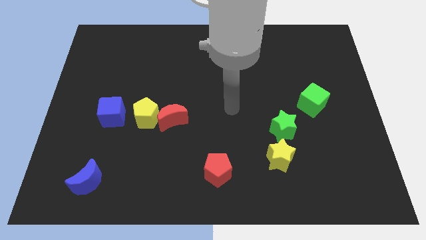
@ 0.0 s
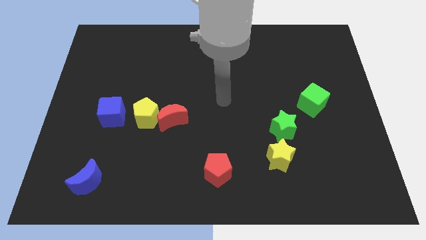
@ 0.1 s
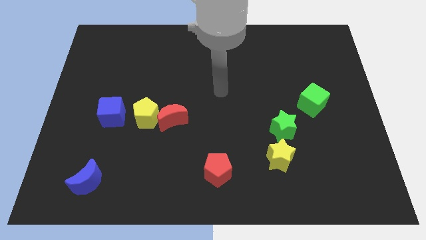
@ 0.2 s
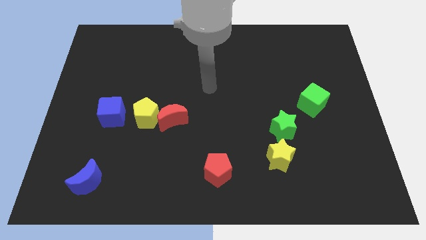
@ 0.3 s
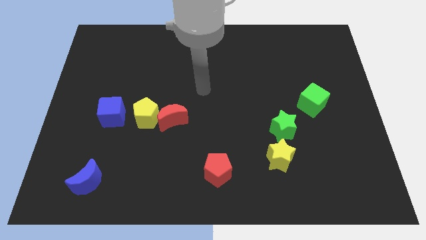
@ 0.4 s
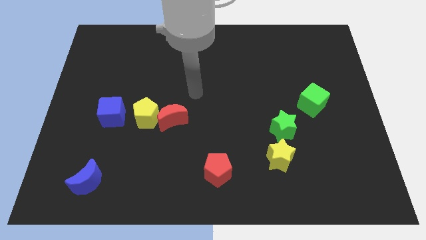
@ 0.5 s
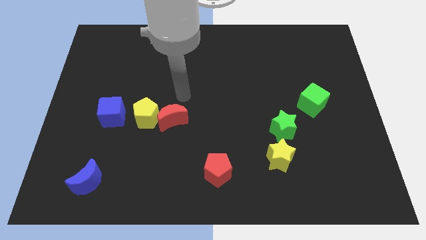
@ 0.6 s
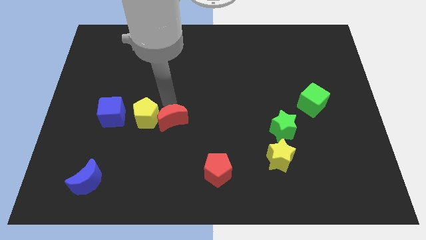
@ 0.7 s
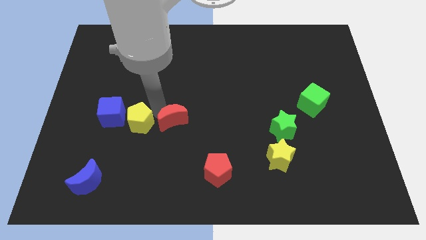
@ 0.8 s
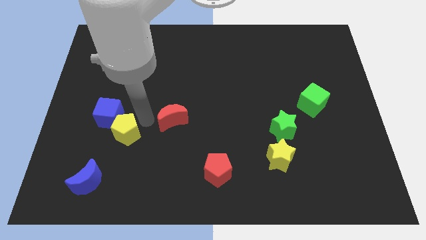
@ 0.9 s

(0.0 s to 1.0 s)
move the red moon away from the yellow pentagon

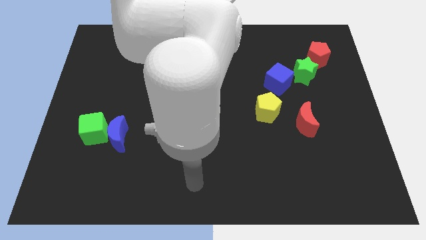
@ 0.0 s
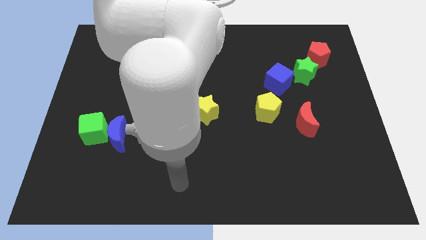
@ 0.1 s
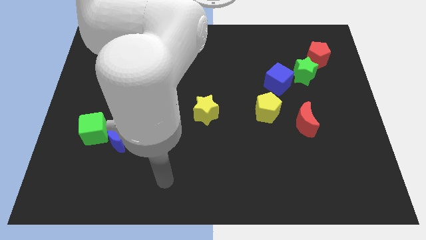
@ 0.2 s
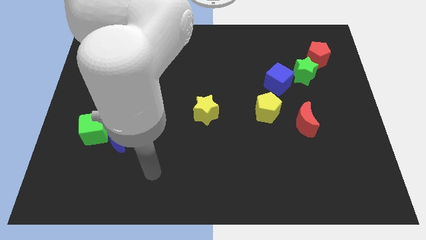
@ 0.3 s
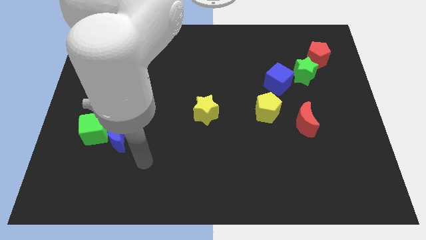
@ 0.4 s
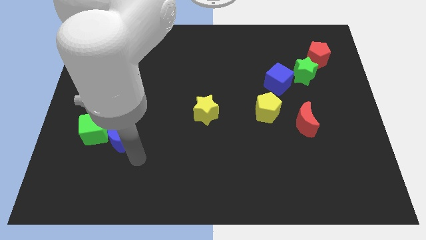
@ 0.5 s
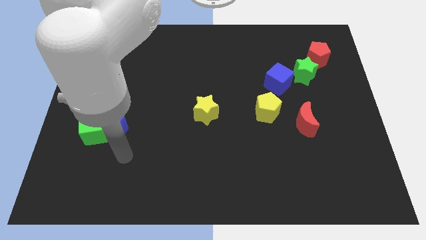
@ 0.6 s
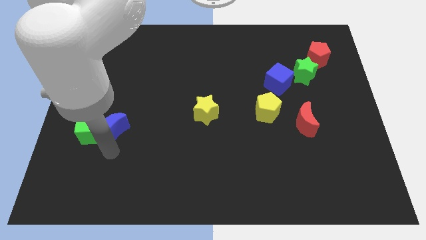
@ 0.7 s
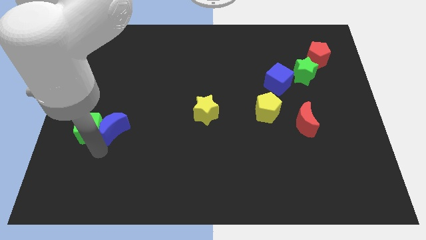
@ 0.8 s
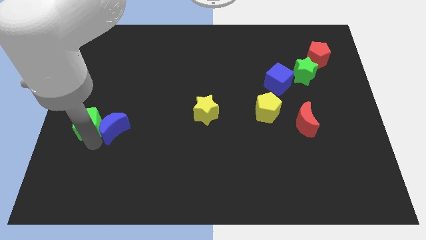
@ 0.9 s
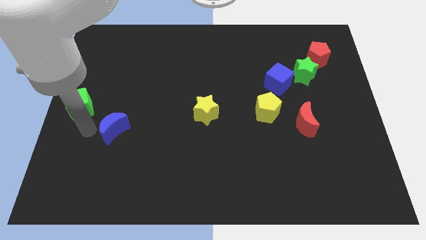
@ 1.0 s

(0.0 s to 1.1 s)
pull the blue moon apart from the green cube

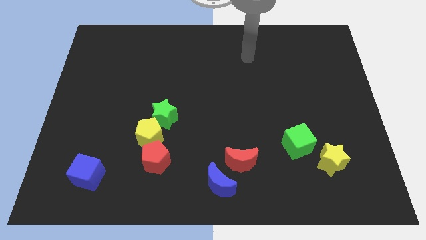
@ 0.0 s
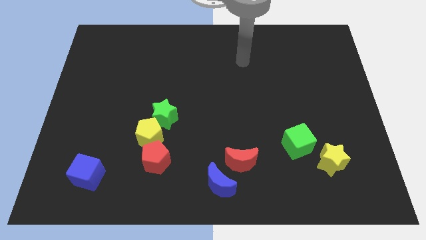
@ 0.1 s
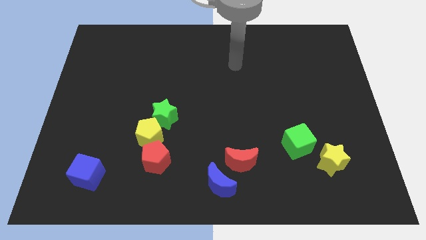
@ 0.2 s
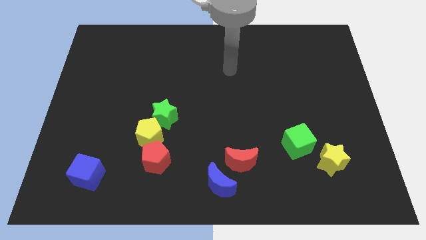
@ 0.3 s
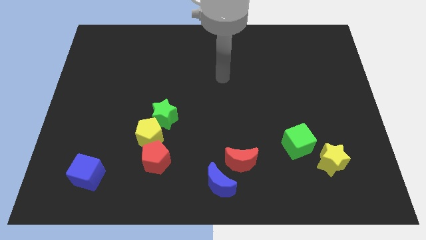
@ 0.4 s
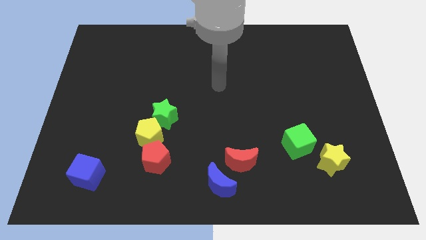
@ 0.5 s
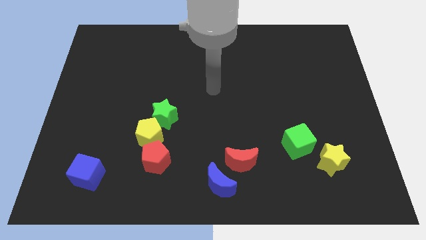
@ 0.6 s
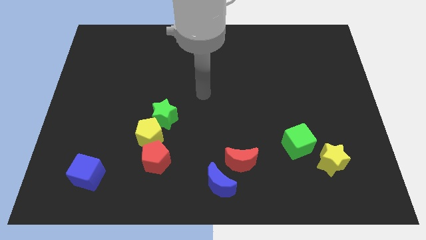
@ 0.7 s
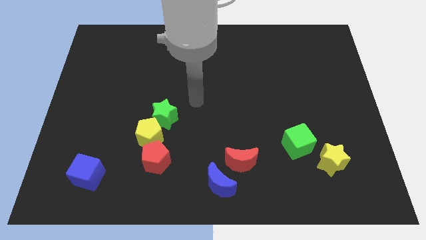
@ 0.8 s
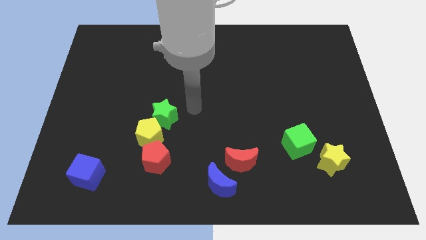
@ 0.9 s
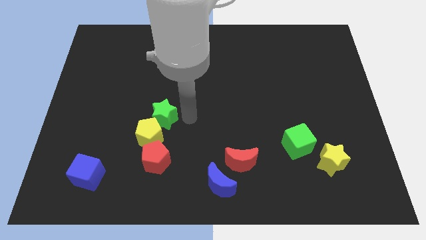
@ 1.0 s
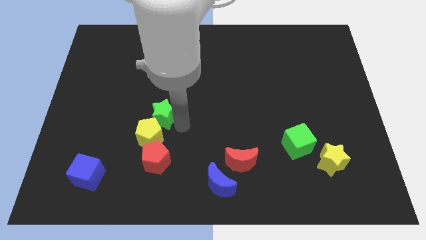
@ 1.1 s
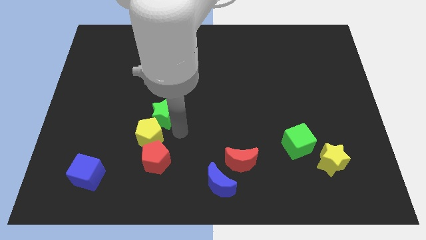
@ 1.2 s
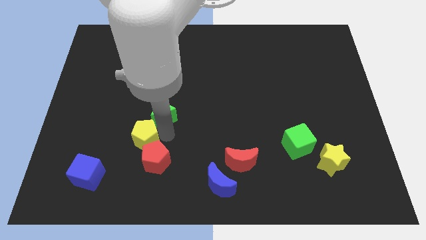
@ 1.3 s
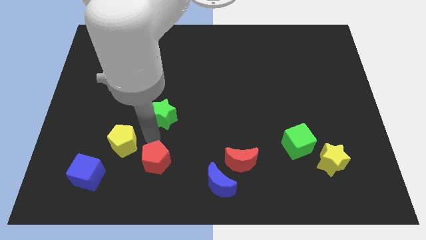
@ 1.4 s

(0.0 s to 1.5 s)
move the green star away from the yellow pentagon

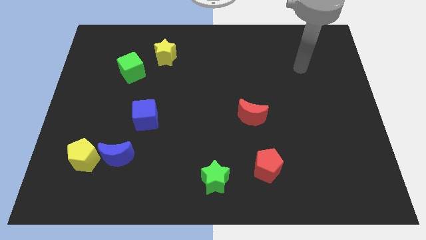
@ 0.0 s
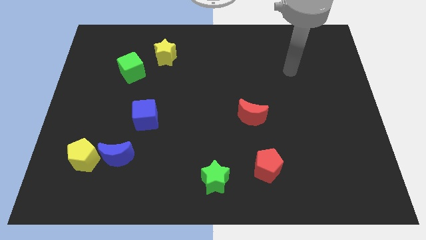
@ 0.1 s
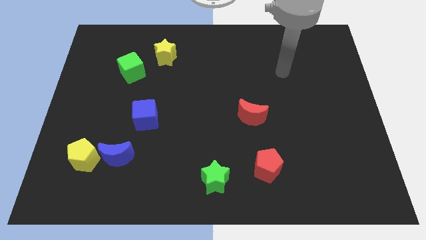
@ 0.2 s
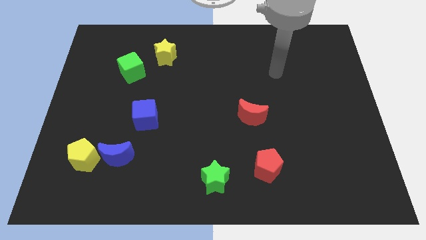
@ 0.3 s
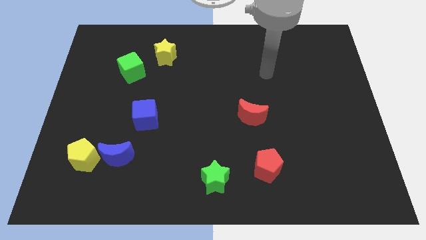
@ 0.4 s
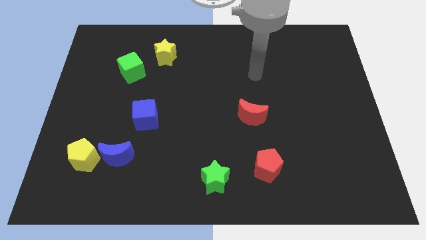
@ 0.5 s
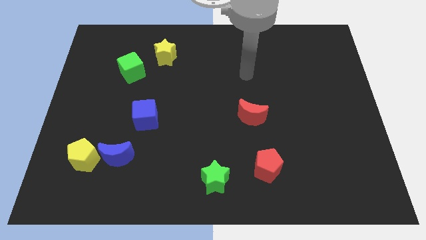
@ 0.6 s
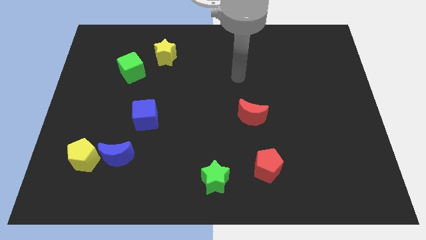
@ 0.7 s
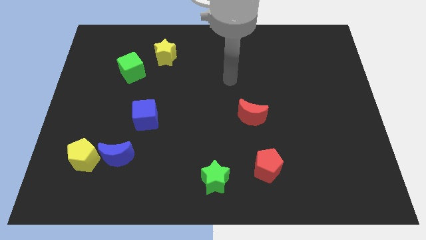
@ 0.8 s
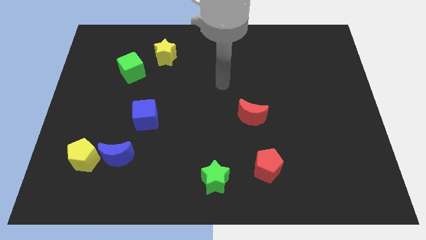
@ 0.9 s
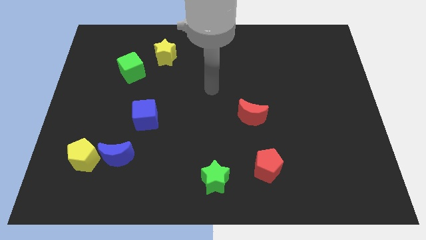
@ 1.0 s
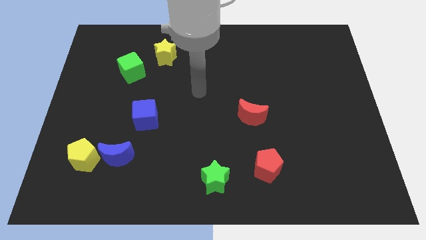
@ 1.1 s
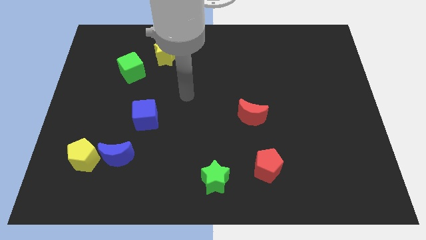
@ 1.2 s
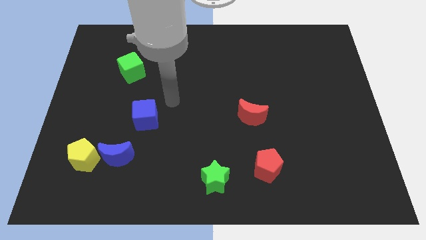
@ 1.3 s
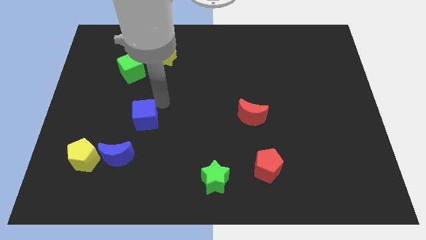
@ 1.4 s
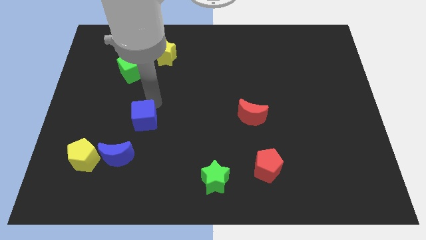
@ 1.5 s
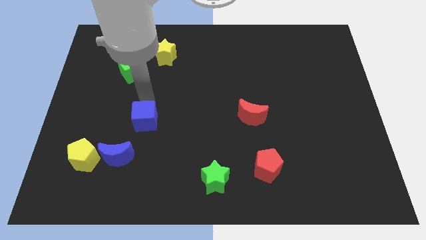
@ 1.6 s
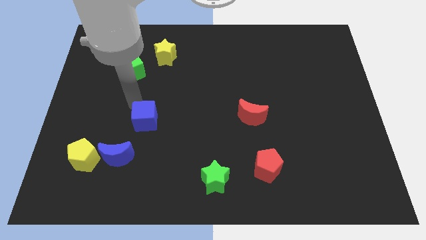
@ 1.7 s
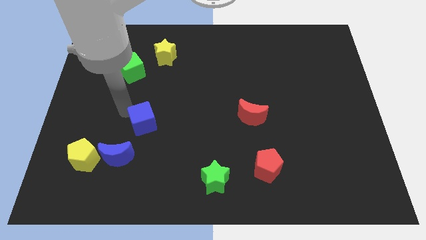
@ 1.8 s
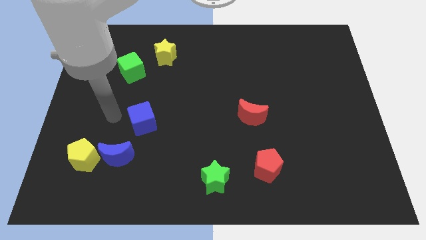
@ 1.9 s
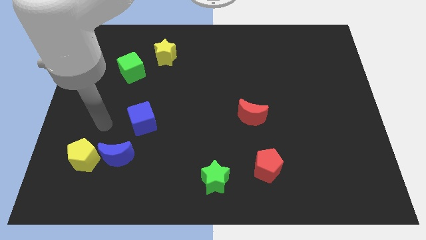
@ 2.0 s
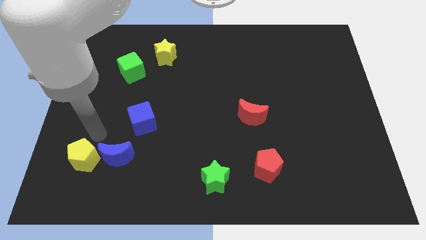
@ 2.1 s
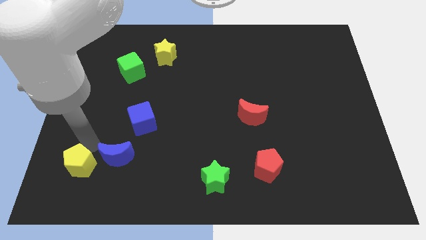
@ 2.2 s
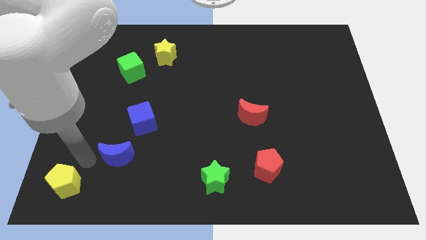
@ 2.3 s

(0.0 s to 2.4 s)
pull the blue moon apart from the yellow pentagon

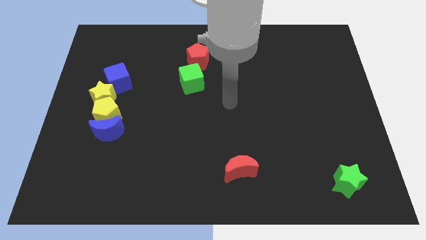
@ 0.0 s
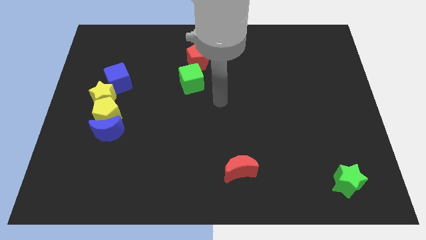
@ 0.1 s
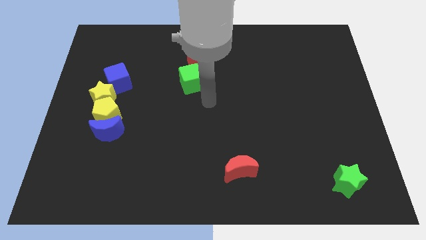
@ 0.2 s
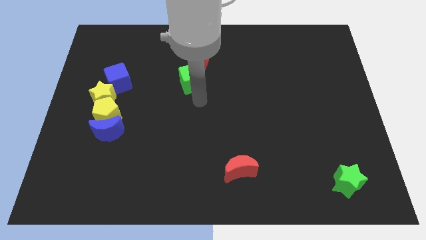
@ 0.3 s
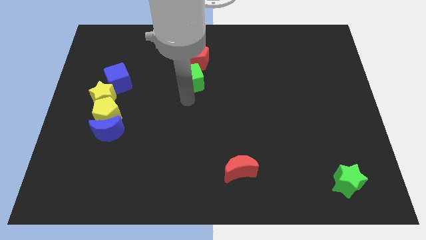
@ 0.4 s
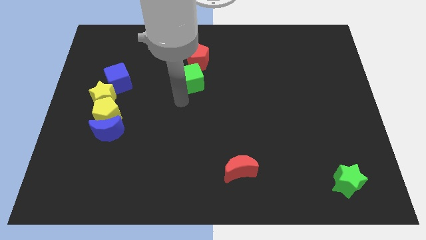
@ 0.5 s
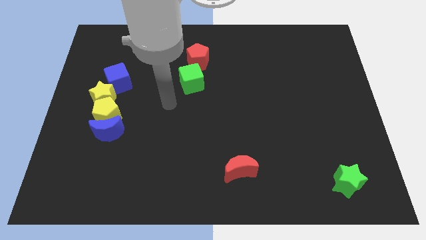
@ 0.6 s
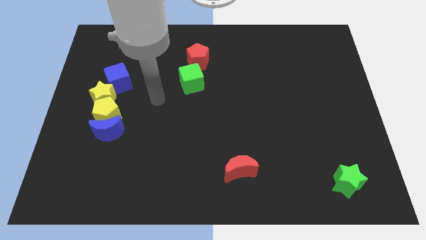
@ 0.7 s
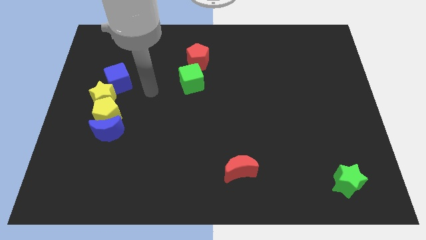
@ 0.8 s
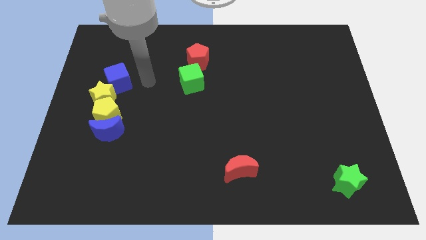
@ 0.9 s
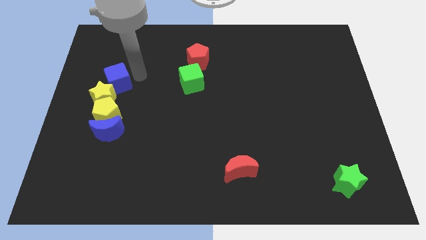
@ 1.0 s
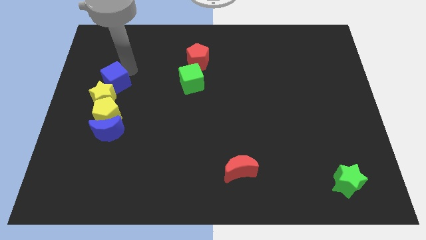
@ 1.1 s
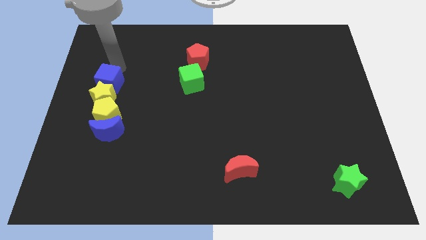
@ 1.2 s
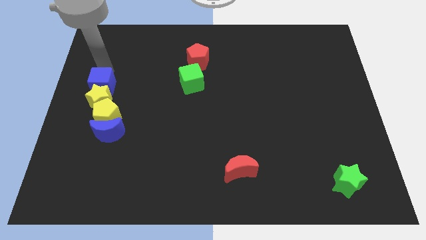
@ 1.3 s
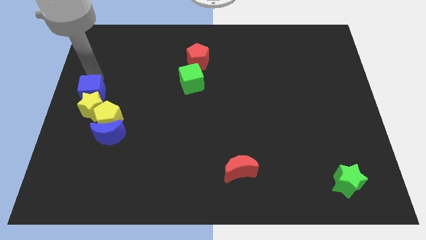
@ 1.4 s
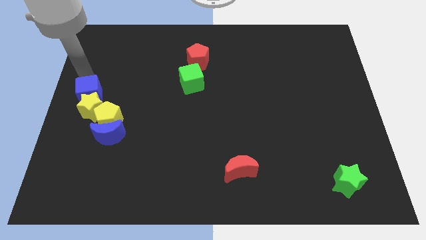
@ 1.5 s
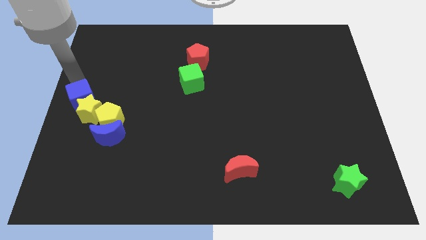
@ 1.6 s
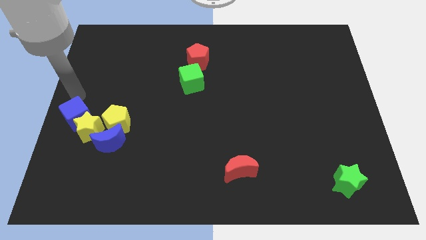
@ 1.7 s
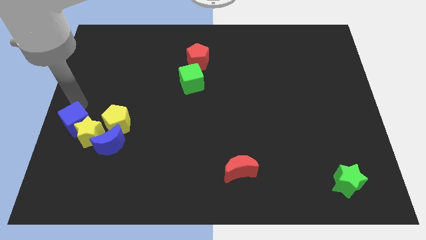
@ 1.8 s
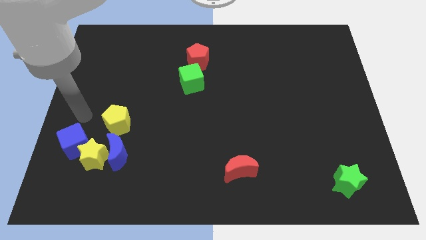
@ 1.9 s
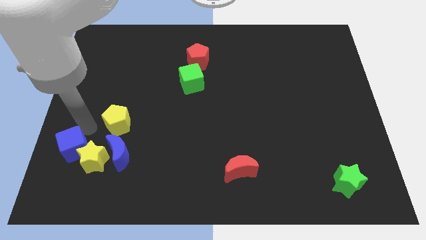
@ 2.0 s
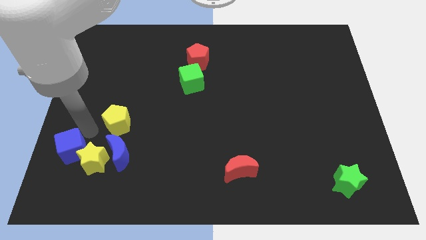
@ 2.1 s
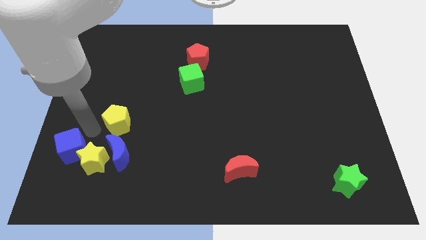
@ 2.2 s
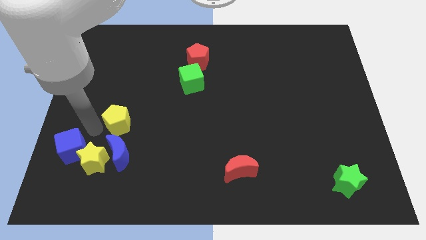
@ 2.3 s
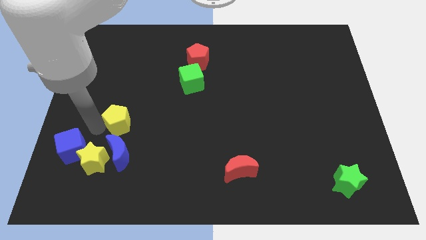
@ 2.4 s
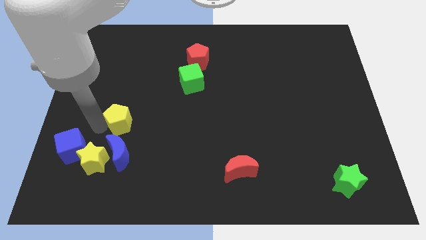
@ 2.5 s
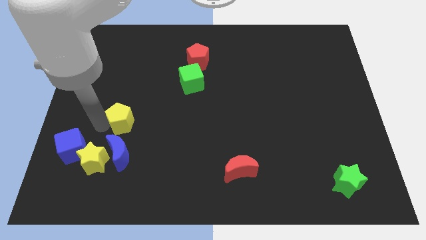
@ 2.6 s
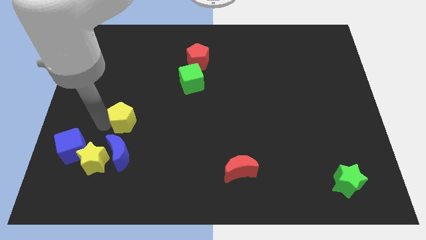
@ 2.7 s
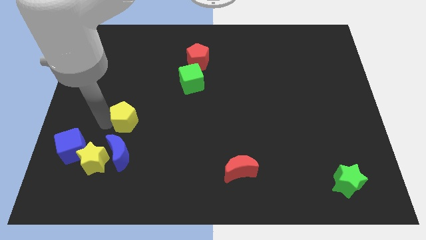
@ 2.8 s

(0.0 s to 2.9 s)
separate the yellow pentagon from the blue moon and yellow star

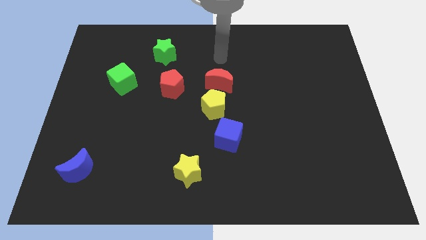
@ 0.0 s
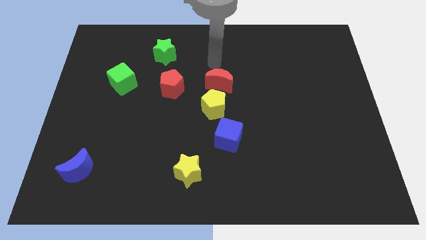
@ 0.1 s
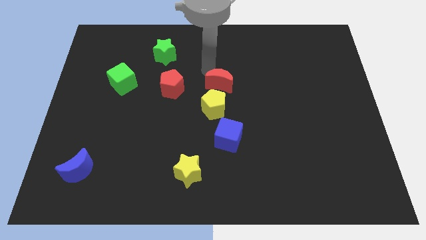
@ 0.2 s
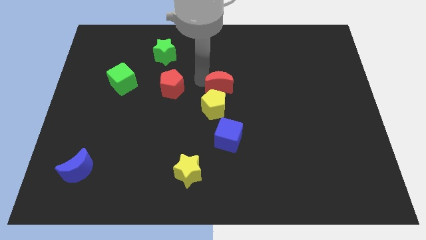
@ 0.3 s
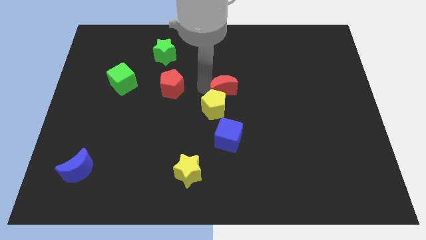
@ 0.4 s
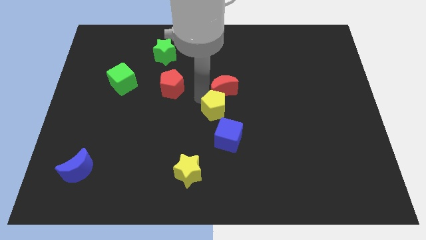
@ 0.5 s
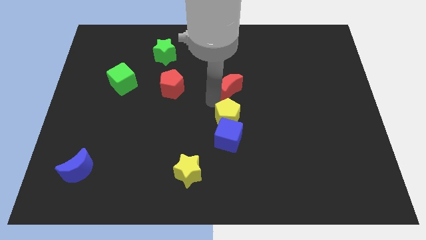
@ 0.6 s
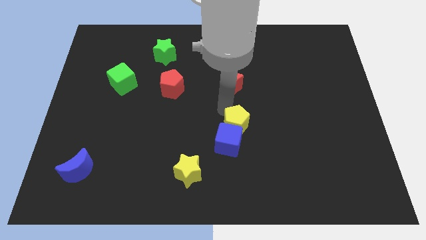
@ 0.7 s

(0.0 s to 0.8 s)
pull the red moon apart from the yellow pentagon
